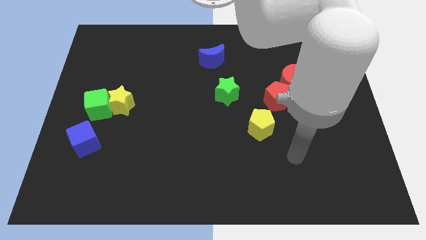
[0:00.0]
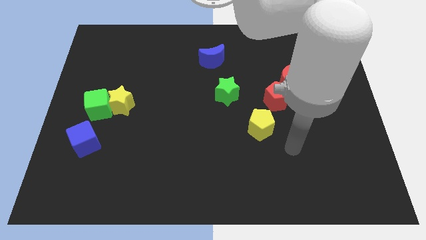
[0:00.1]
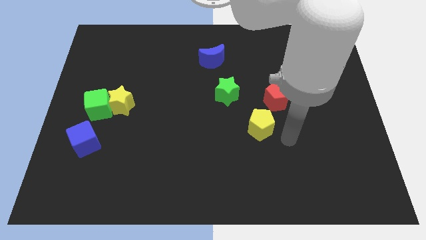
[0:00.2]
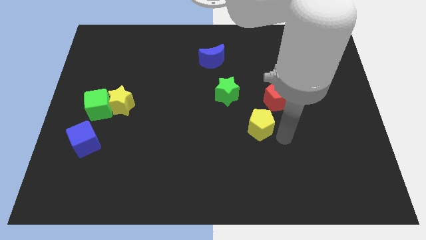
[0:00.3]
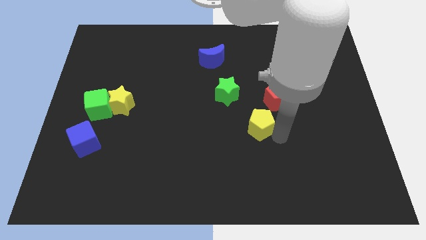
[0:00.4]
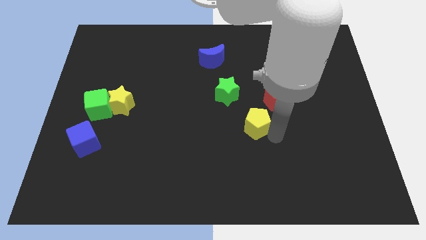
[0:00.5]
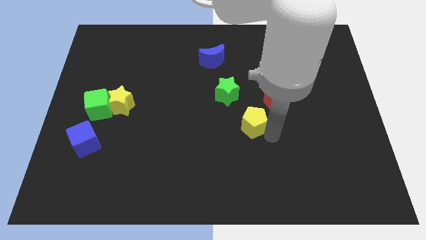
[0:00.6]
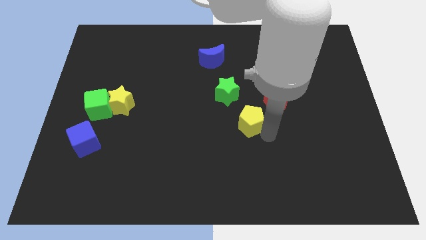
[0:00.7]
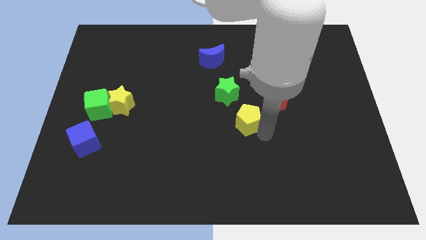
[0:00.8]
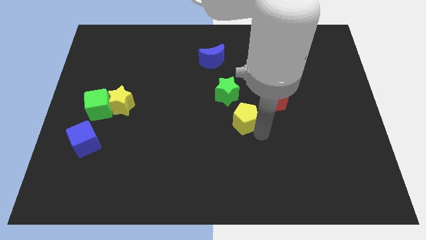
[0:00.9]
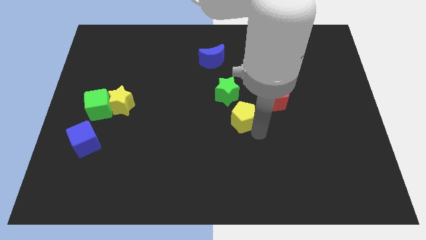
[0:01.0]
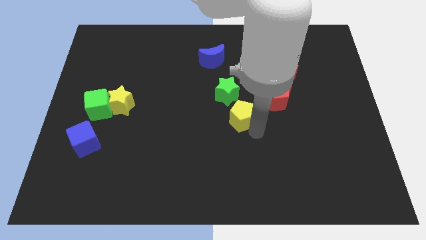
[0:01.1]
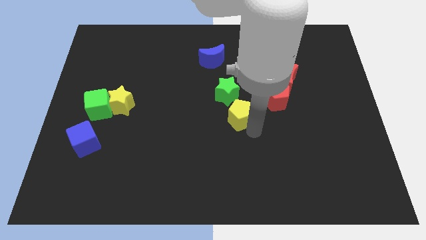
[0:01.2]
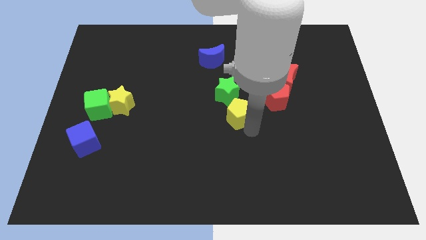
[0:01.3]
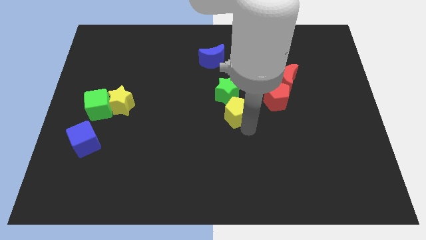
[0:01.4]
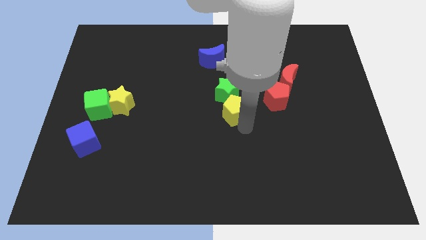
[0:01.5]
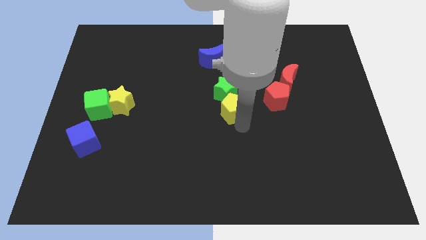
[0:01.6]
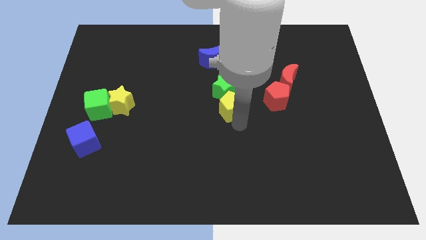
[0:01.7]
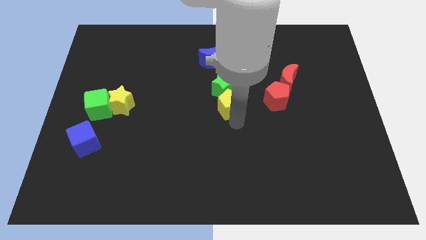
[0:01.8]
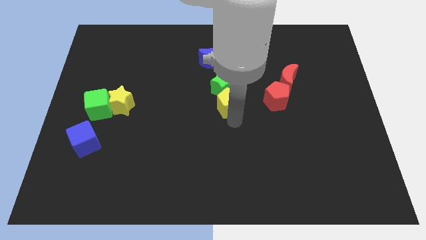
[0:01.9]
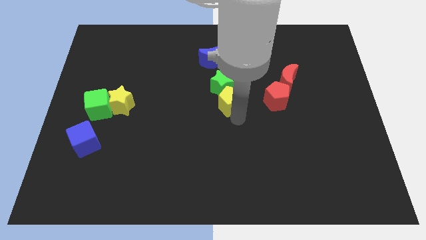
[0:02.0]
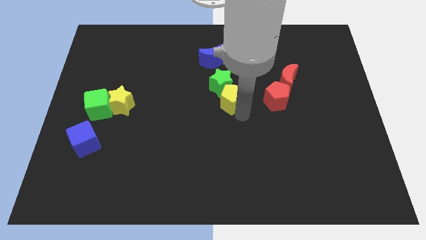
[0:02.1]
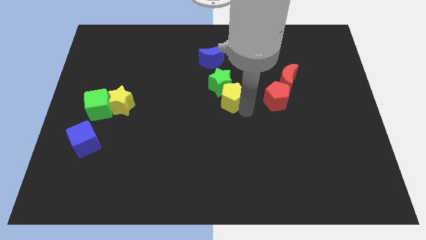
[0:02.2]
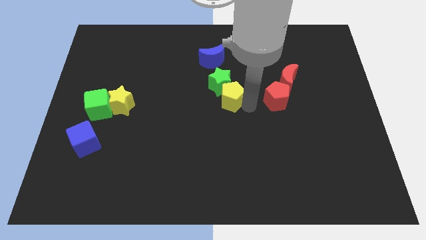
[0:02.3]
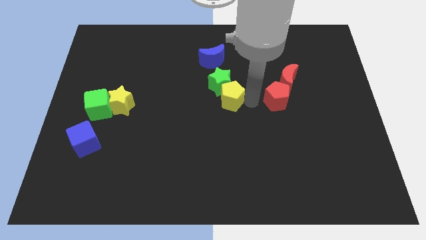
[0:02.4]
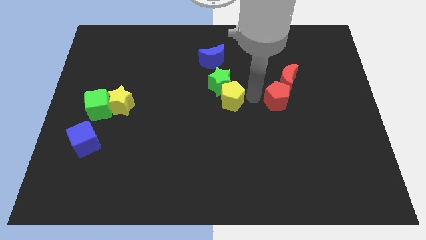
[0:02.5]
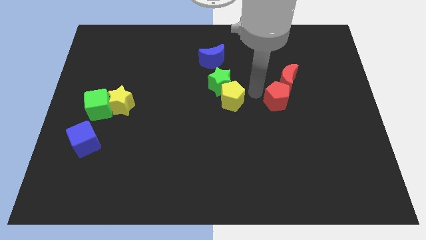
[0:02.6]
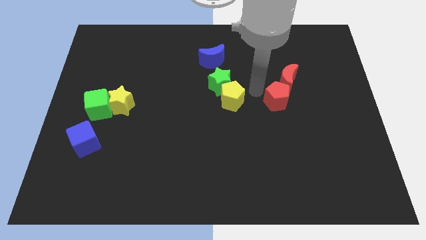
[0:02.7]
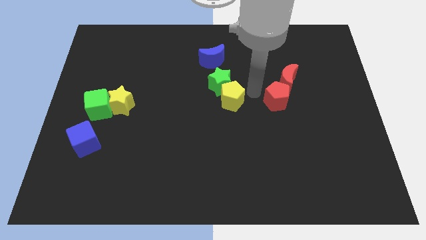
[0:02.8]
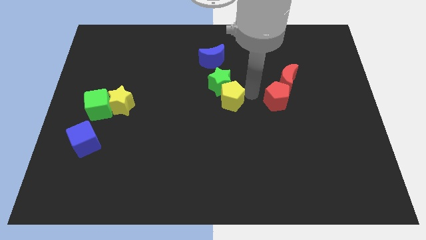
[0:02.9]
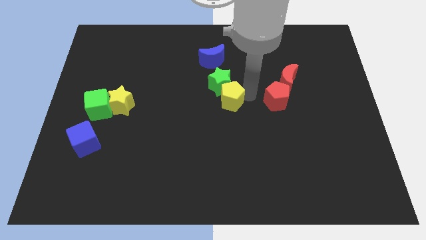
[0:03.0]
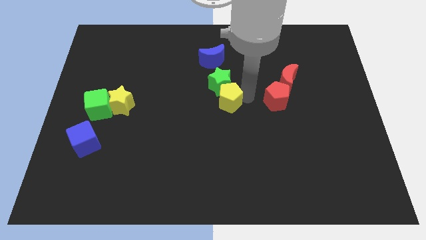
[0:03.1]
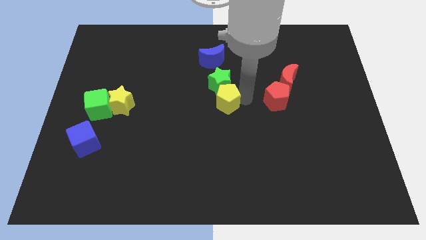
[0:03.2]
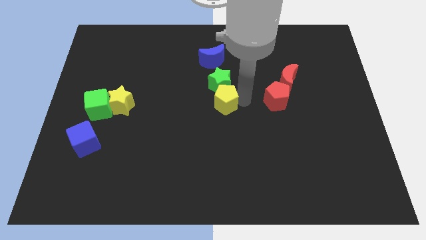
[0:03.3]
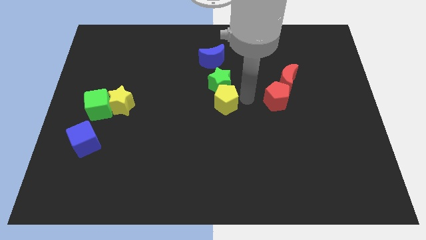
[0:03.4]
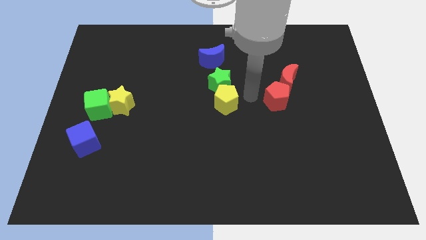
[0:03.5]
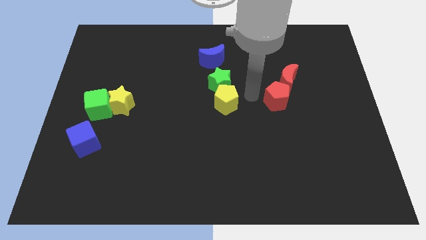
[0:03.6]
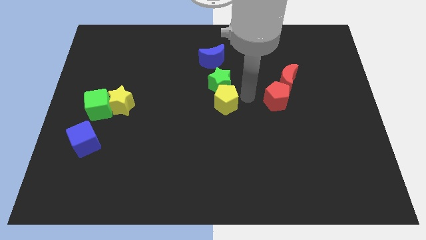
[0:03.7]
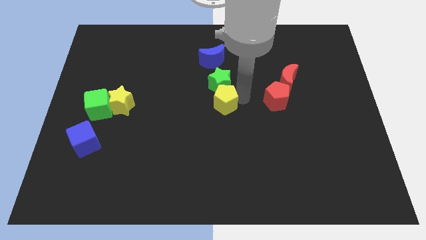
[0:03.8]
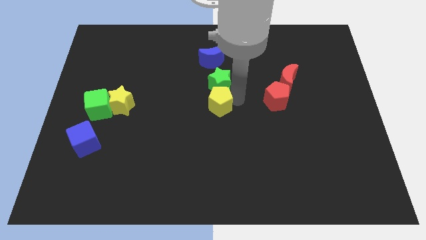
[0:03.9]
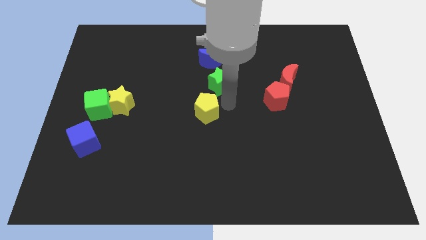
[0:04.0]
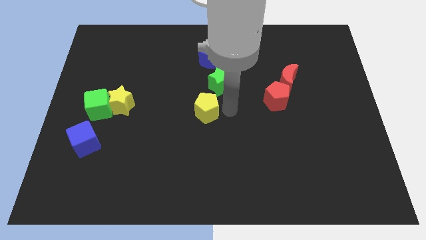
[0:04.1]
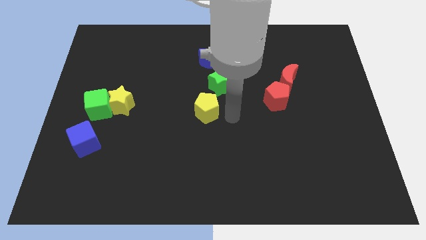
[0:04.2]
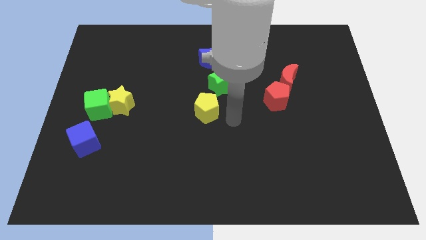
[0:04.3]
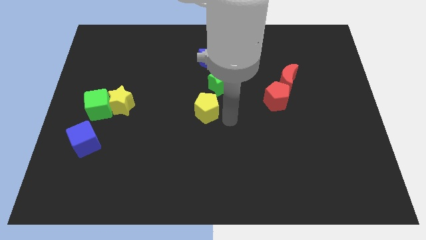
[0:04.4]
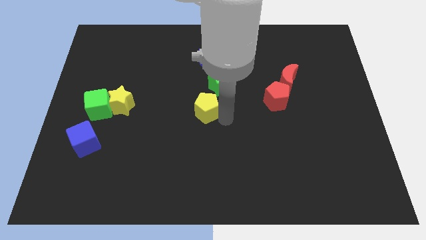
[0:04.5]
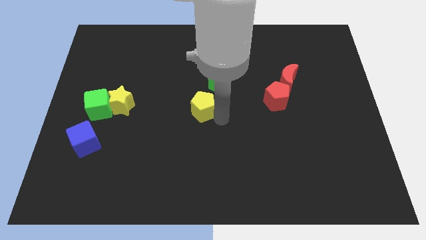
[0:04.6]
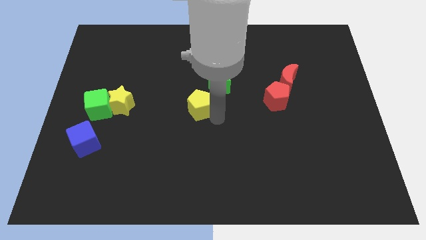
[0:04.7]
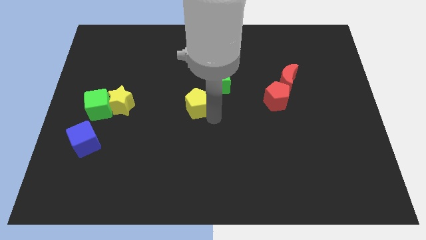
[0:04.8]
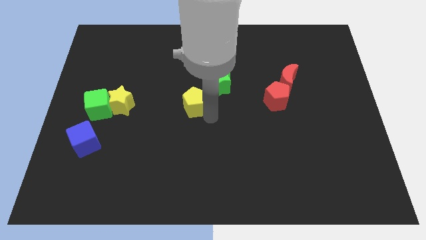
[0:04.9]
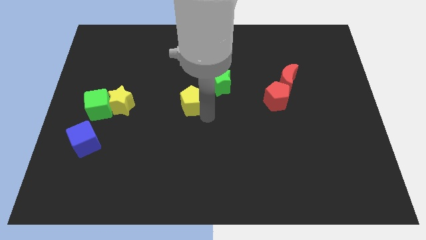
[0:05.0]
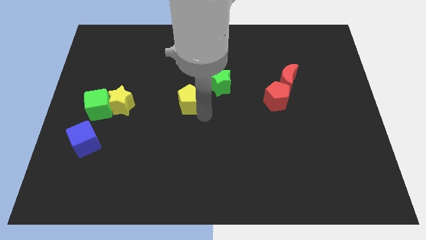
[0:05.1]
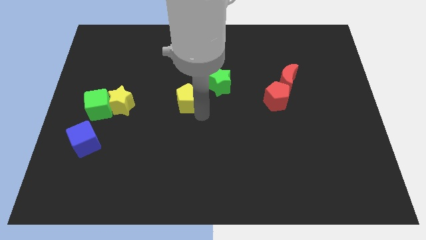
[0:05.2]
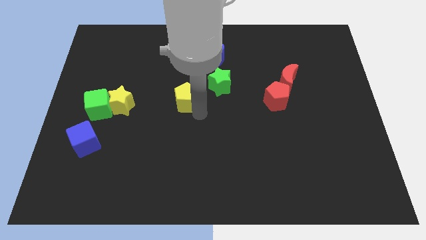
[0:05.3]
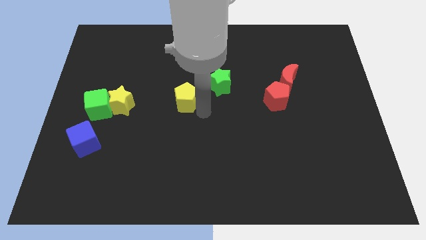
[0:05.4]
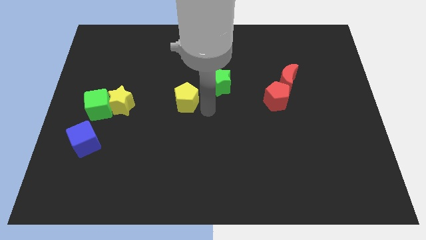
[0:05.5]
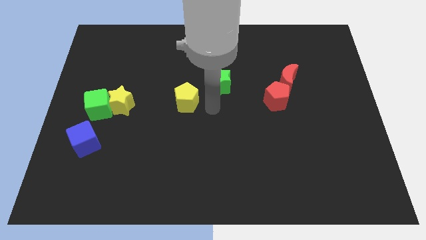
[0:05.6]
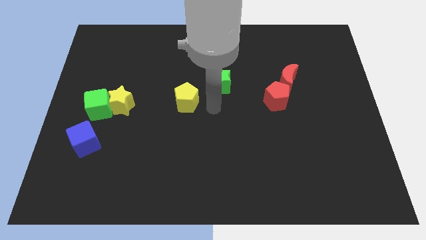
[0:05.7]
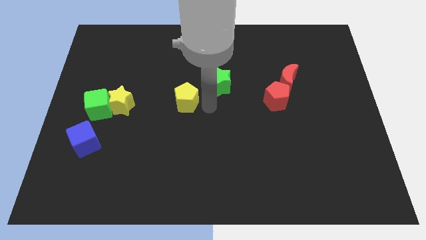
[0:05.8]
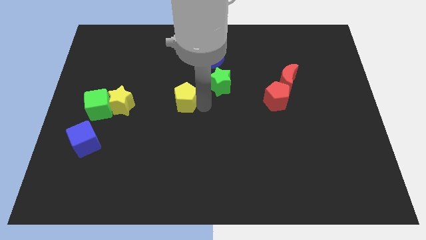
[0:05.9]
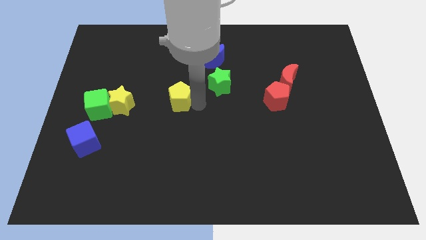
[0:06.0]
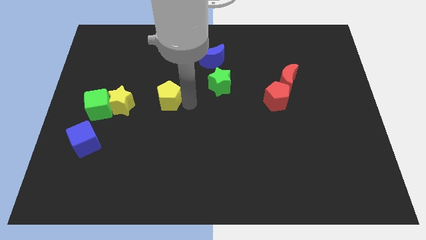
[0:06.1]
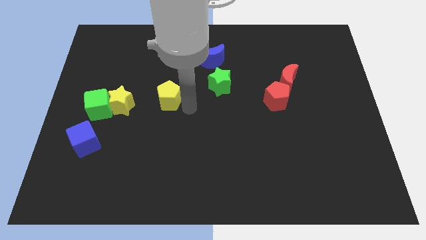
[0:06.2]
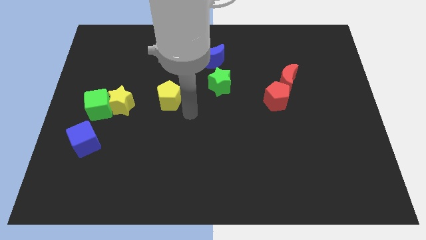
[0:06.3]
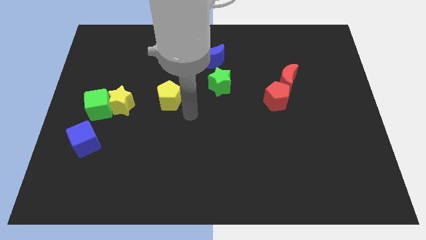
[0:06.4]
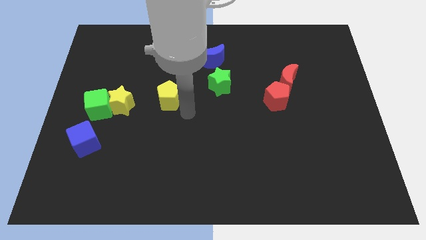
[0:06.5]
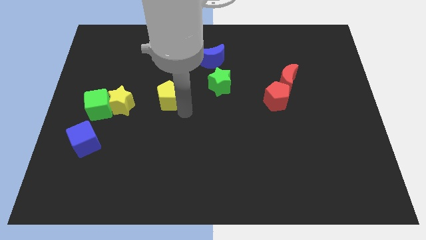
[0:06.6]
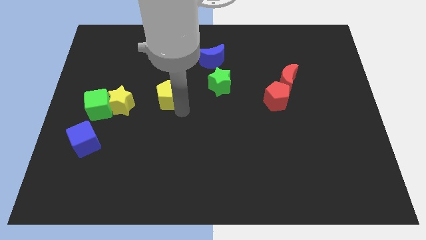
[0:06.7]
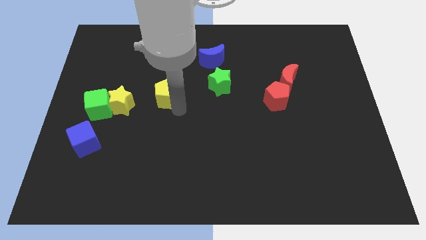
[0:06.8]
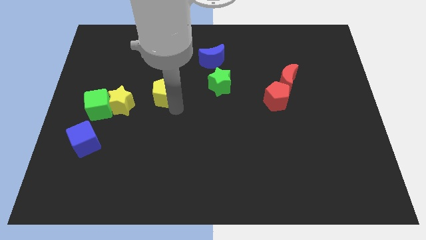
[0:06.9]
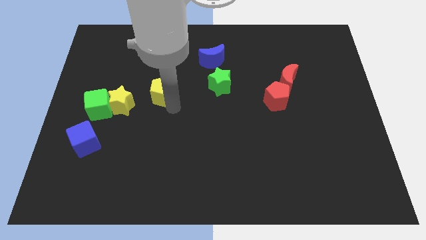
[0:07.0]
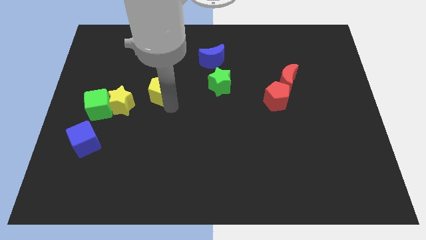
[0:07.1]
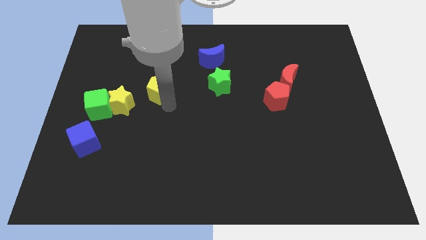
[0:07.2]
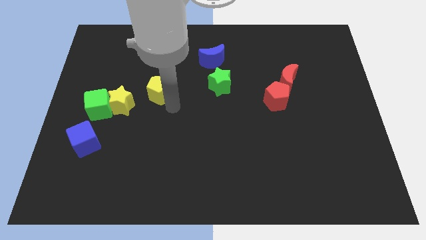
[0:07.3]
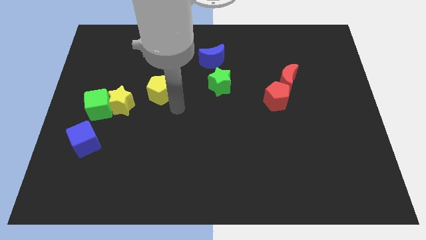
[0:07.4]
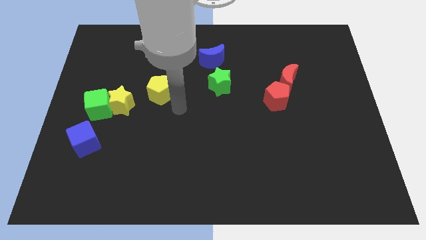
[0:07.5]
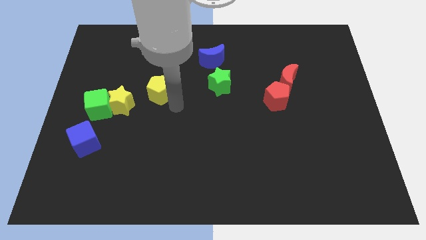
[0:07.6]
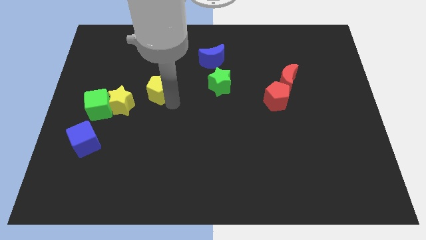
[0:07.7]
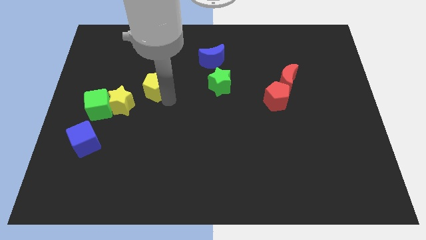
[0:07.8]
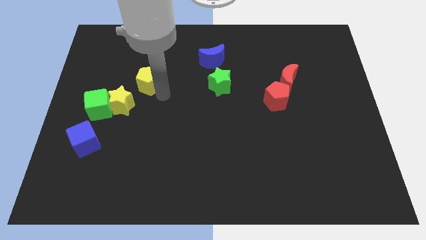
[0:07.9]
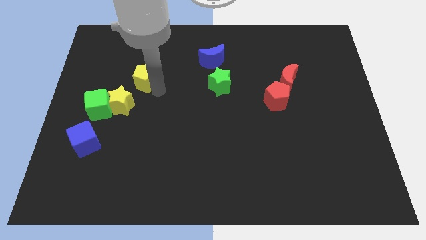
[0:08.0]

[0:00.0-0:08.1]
put the yellow pentagon to the top side of the yellow star
